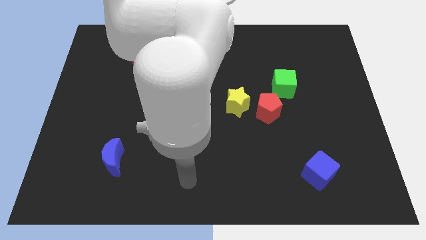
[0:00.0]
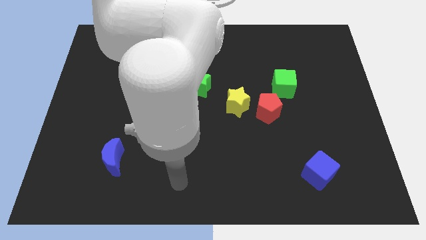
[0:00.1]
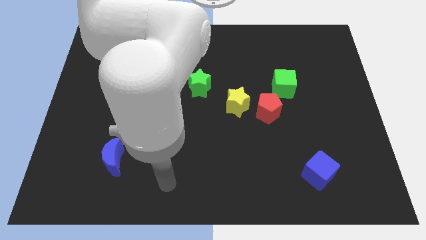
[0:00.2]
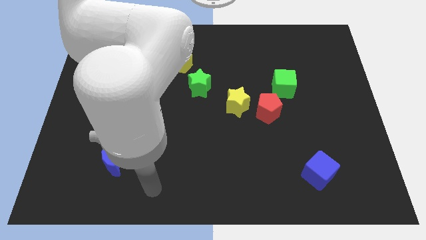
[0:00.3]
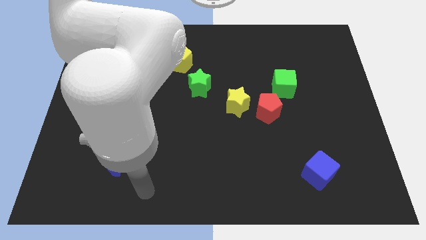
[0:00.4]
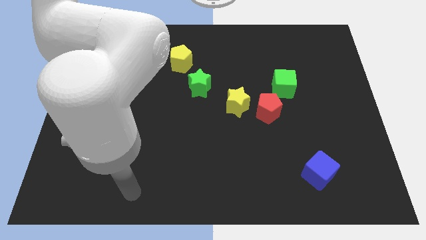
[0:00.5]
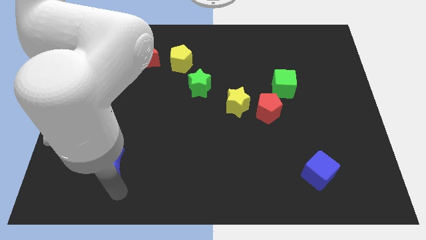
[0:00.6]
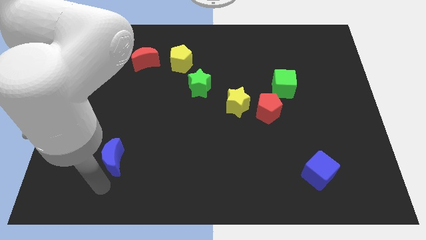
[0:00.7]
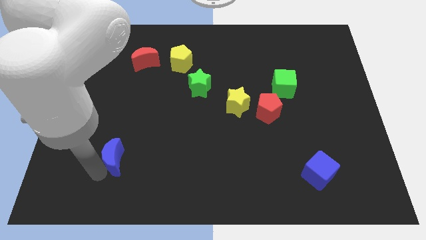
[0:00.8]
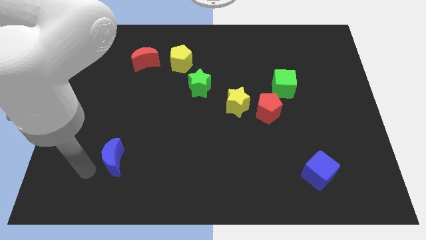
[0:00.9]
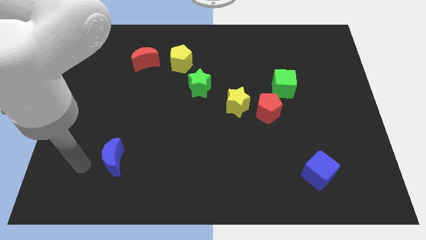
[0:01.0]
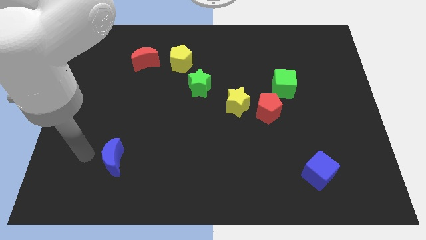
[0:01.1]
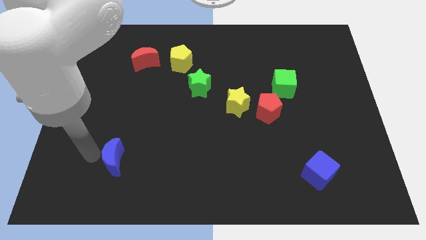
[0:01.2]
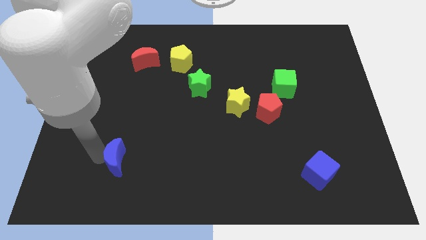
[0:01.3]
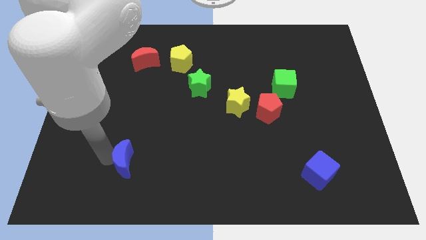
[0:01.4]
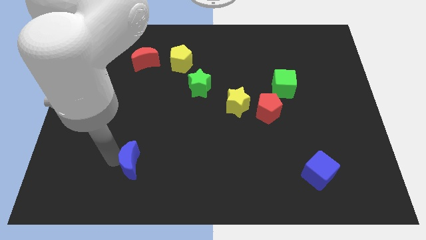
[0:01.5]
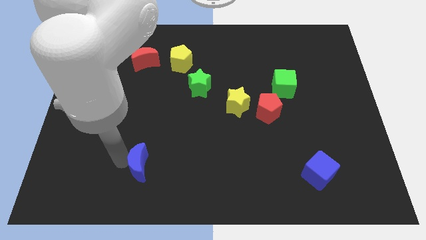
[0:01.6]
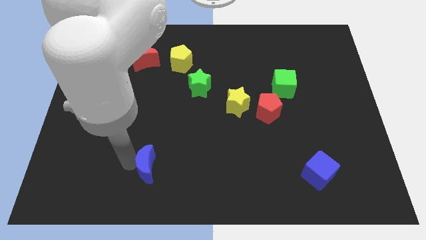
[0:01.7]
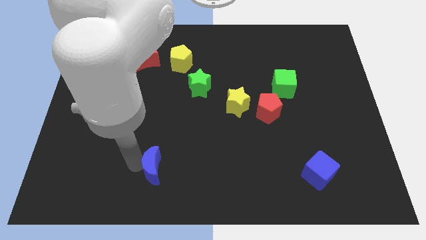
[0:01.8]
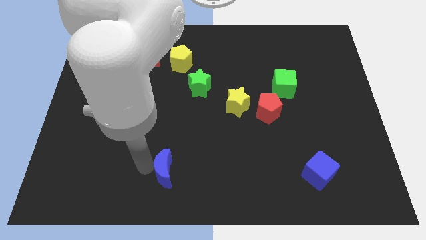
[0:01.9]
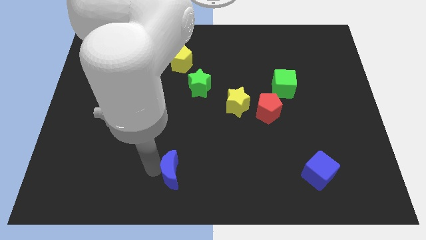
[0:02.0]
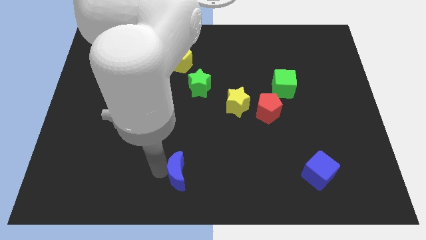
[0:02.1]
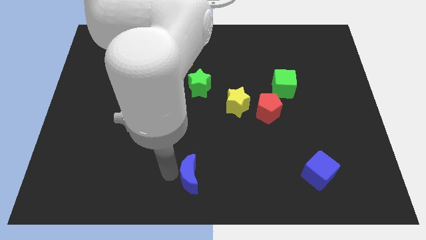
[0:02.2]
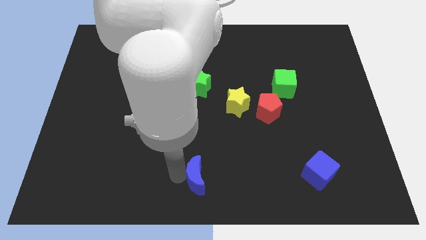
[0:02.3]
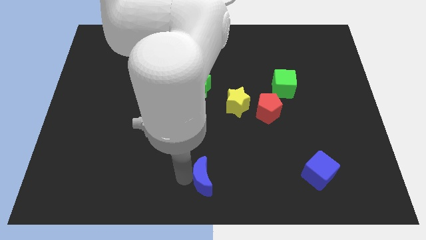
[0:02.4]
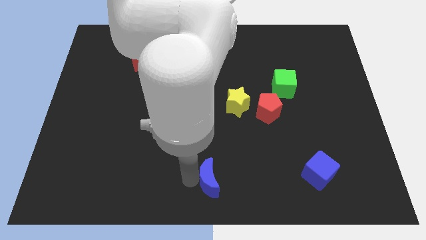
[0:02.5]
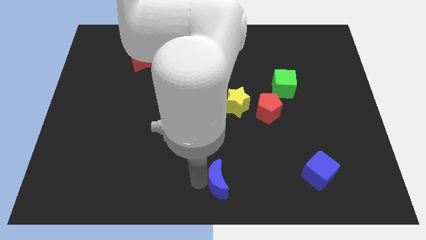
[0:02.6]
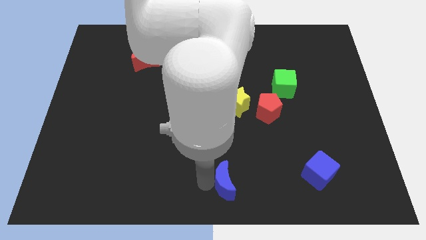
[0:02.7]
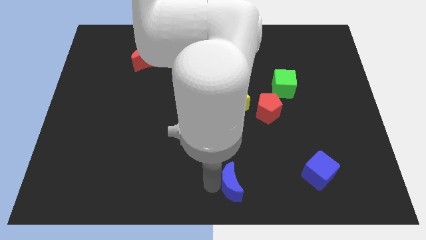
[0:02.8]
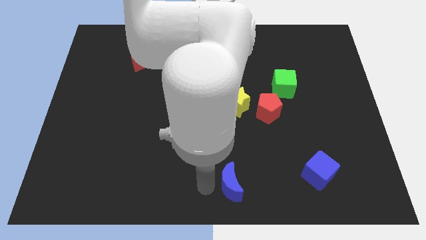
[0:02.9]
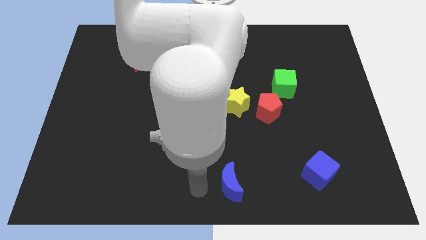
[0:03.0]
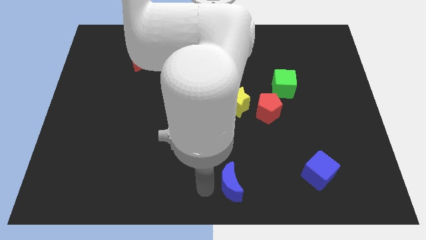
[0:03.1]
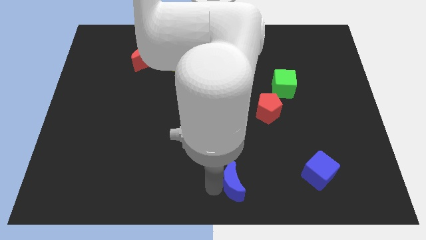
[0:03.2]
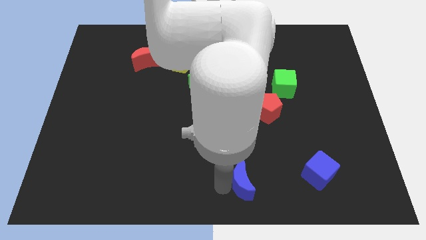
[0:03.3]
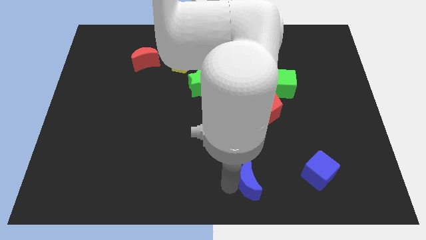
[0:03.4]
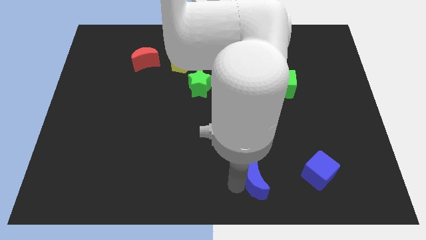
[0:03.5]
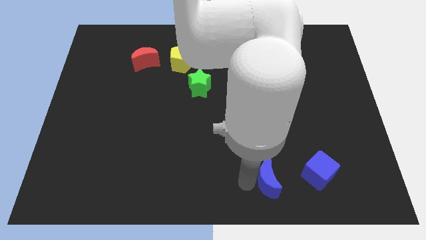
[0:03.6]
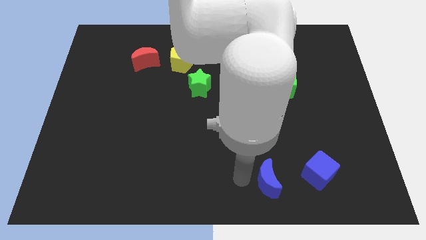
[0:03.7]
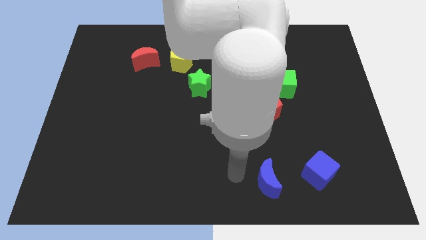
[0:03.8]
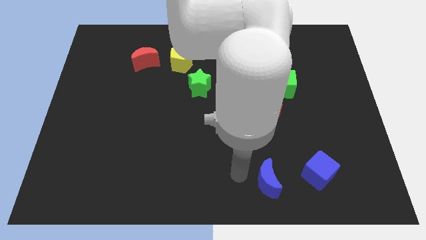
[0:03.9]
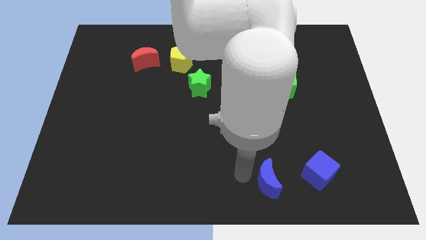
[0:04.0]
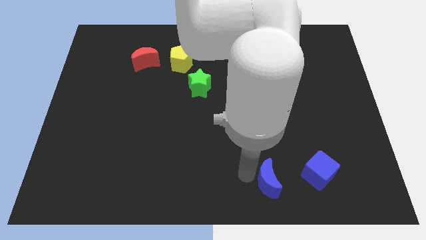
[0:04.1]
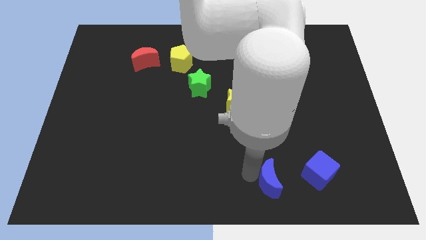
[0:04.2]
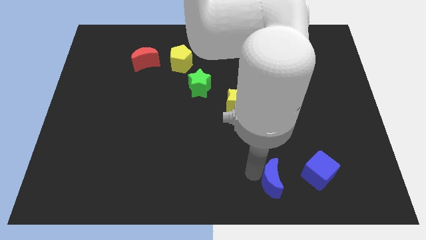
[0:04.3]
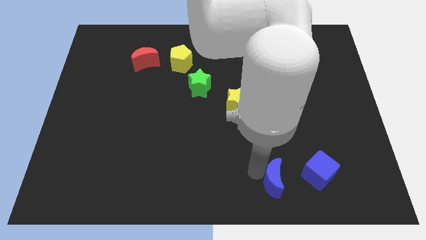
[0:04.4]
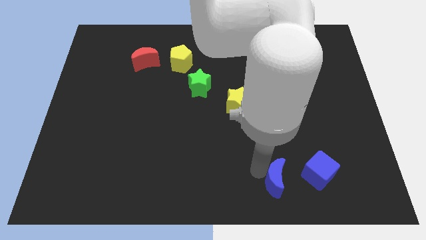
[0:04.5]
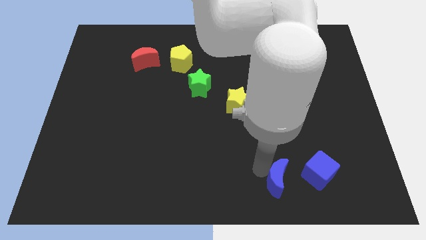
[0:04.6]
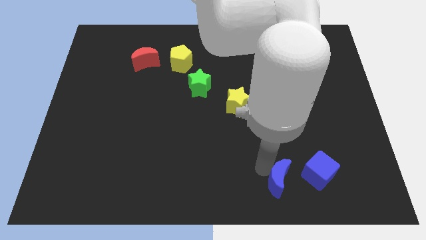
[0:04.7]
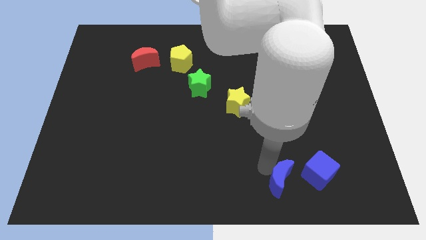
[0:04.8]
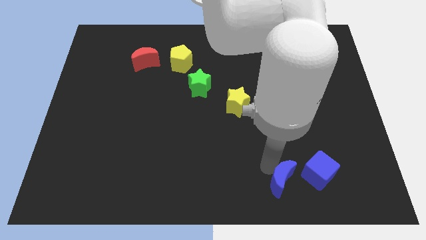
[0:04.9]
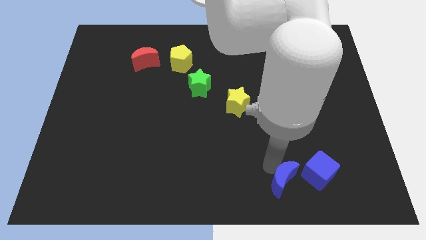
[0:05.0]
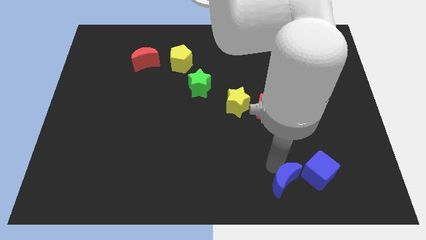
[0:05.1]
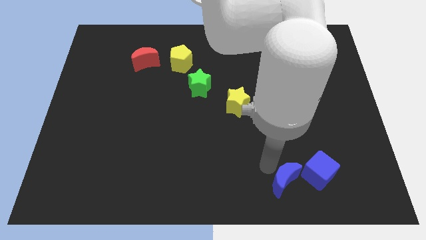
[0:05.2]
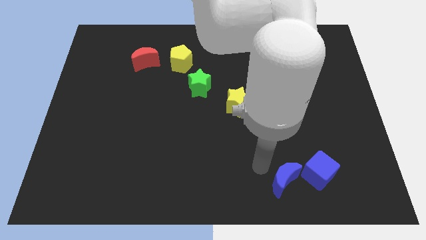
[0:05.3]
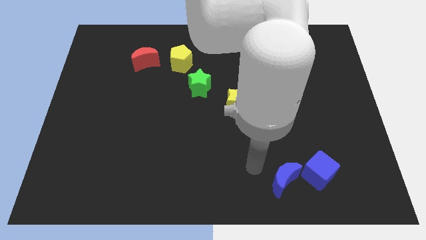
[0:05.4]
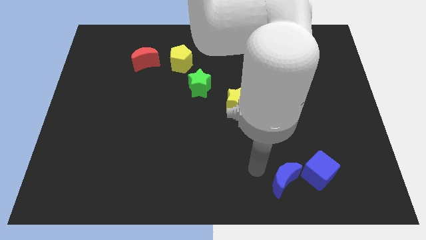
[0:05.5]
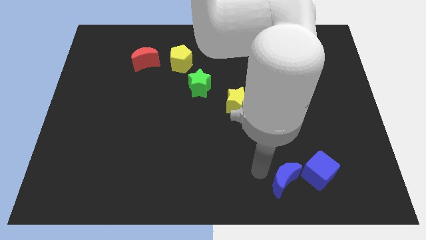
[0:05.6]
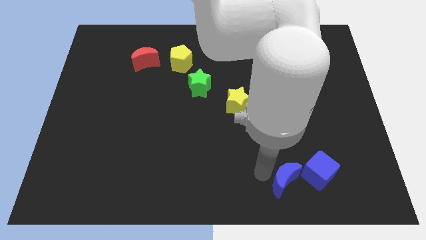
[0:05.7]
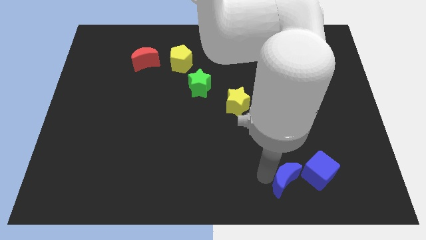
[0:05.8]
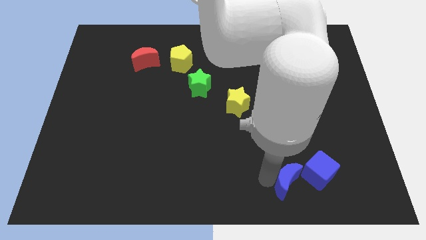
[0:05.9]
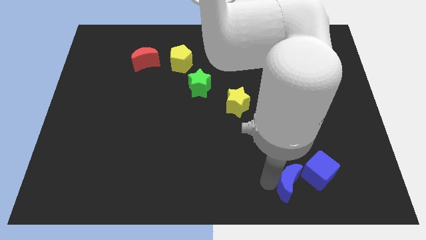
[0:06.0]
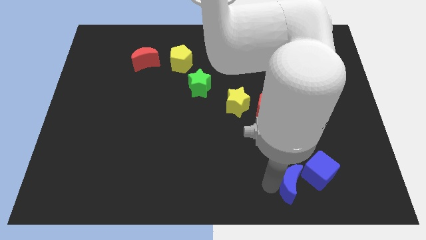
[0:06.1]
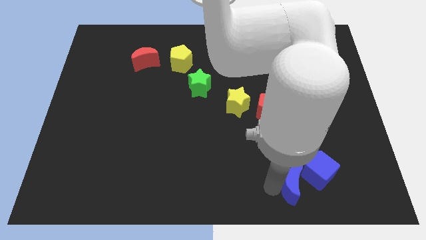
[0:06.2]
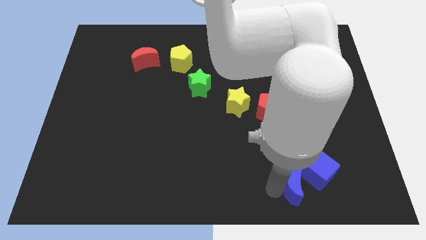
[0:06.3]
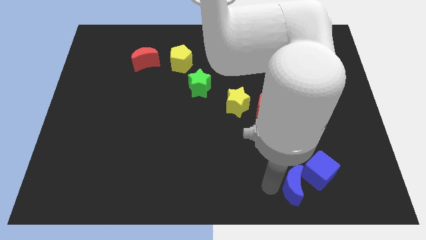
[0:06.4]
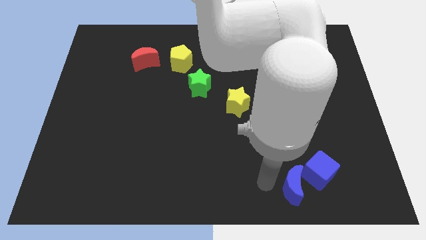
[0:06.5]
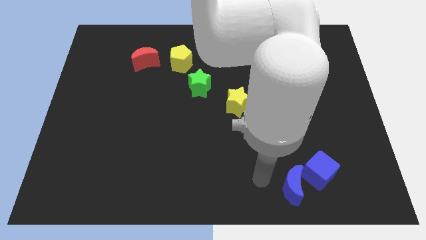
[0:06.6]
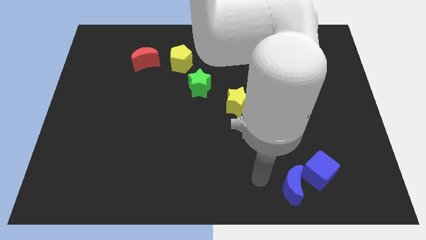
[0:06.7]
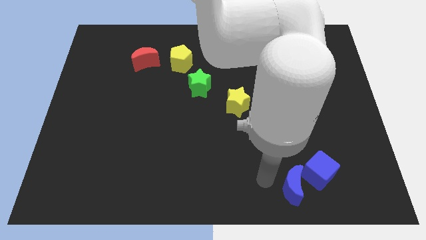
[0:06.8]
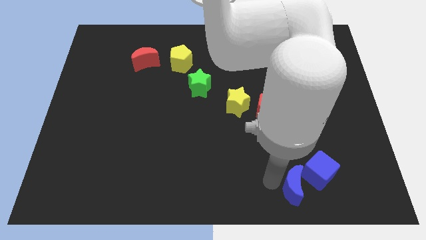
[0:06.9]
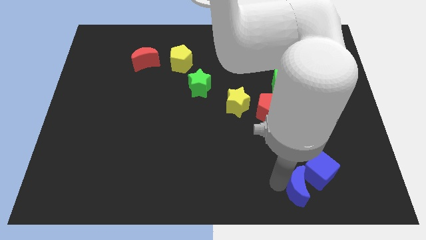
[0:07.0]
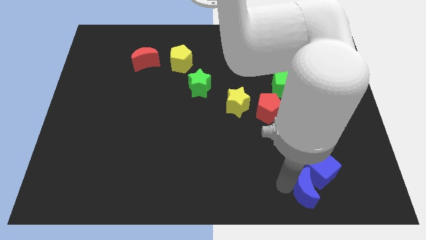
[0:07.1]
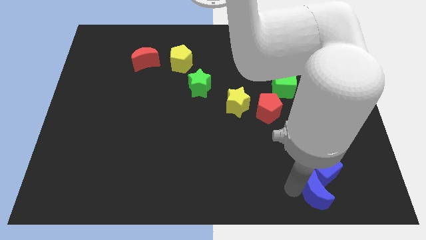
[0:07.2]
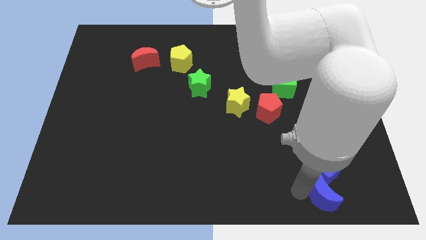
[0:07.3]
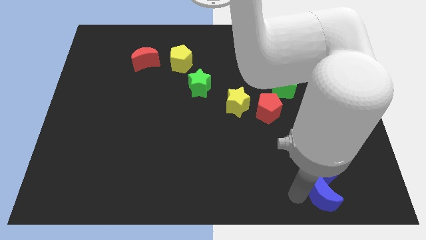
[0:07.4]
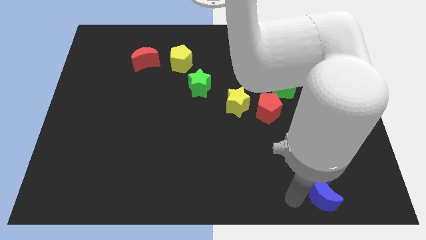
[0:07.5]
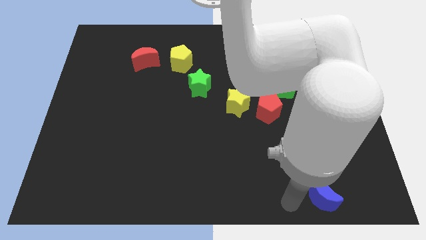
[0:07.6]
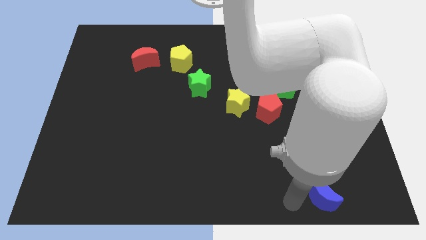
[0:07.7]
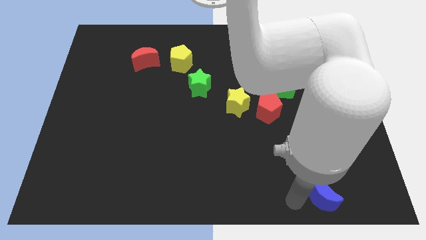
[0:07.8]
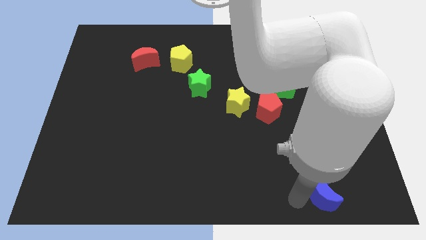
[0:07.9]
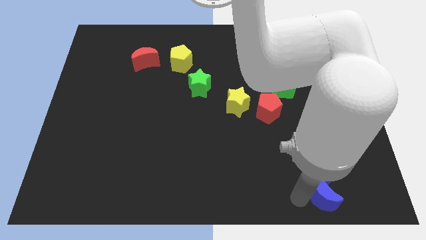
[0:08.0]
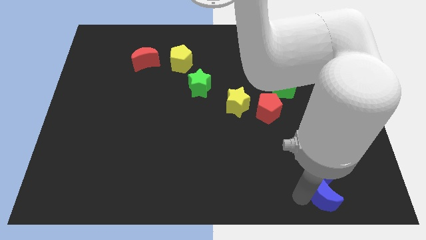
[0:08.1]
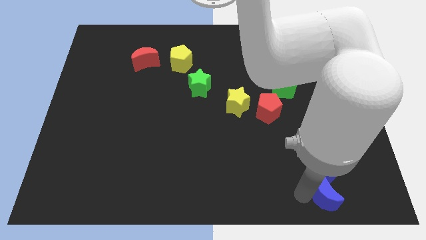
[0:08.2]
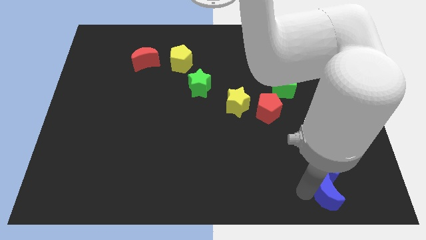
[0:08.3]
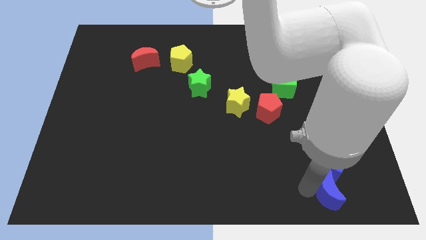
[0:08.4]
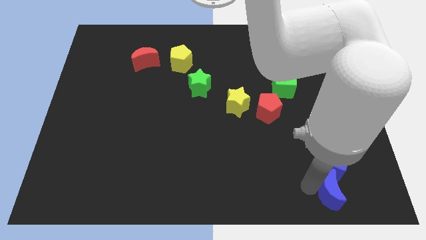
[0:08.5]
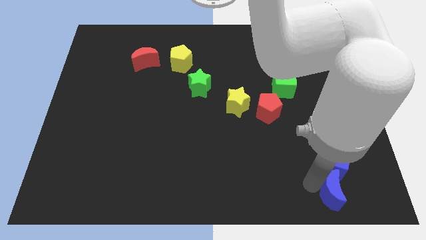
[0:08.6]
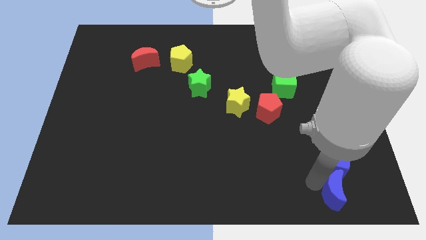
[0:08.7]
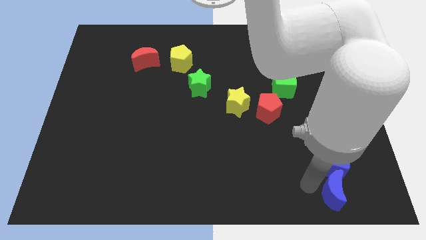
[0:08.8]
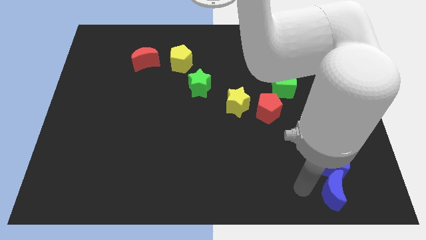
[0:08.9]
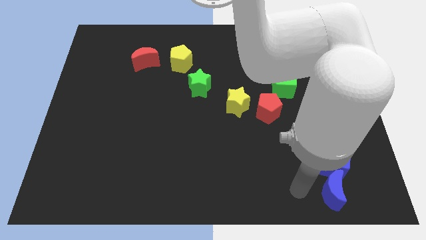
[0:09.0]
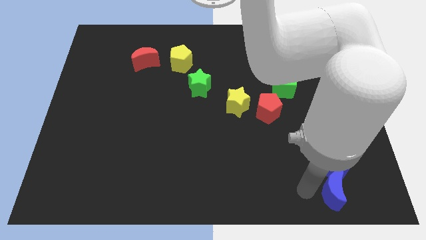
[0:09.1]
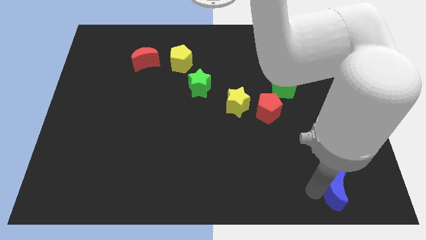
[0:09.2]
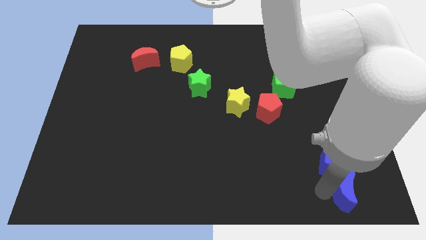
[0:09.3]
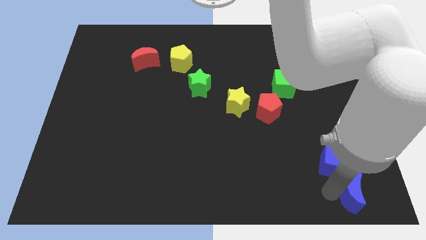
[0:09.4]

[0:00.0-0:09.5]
put the blue moon to the bottom right of the board
